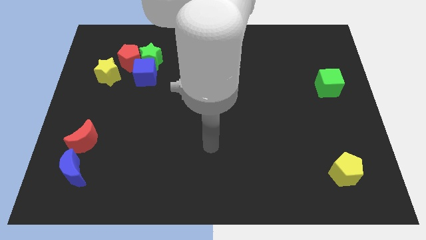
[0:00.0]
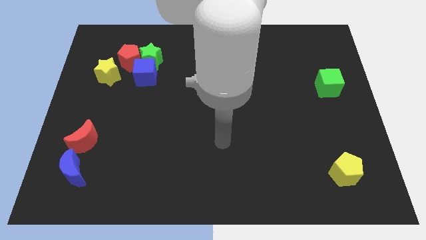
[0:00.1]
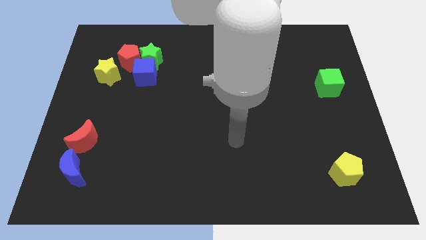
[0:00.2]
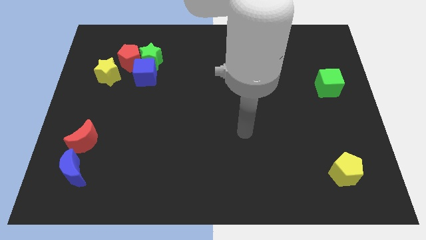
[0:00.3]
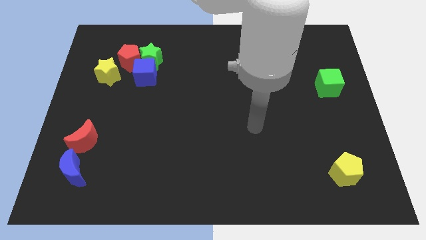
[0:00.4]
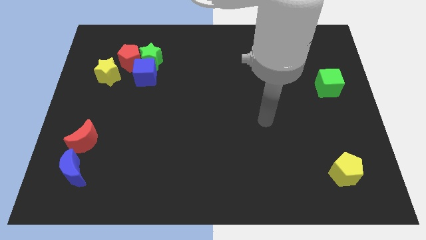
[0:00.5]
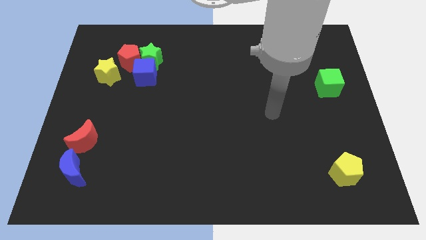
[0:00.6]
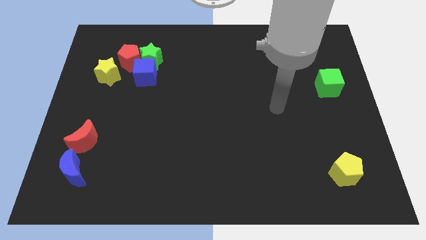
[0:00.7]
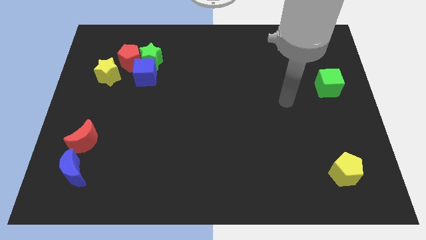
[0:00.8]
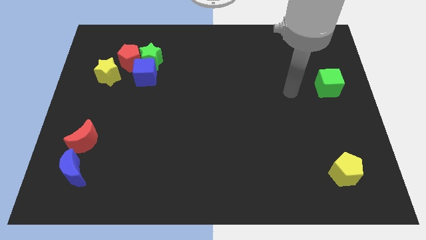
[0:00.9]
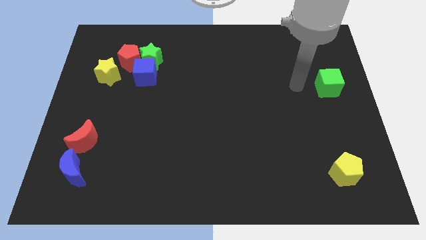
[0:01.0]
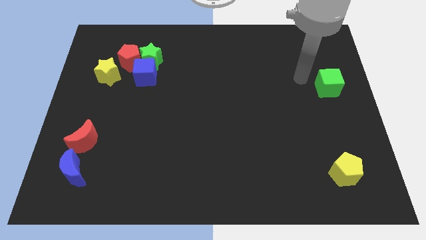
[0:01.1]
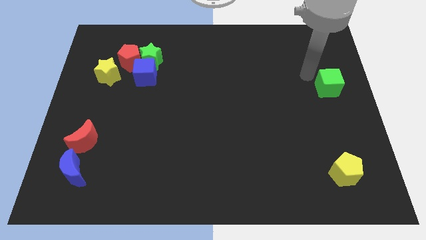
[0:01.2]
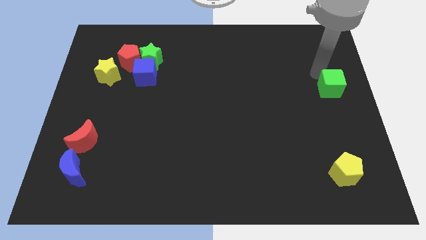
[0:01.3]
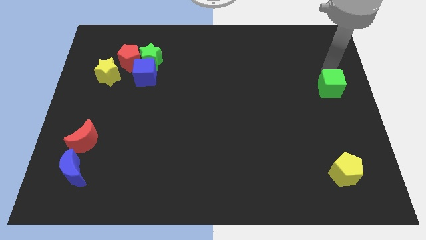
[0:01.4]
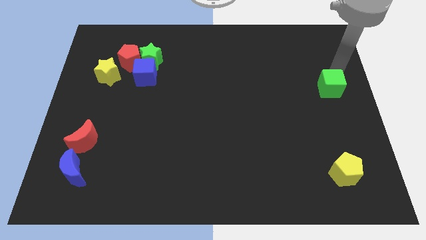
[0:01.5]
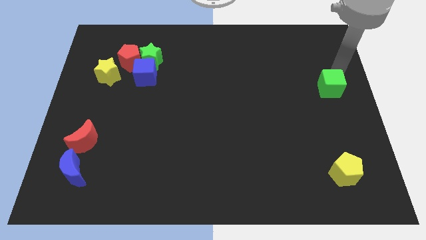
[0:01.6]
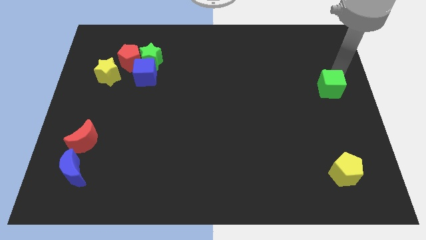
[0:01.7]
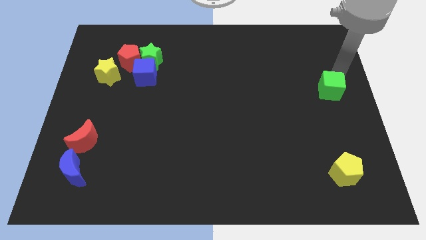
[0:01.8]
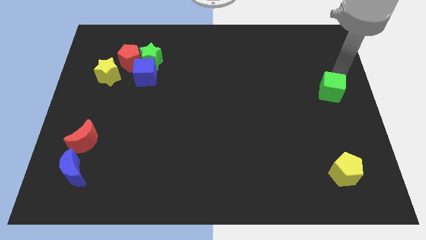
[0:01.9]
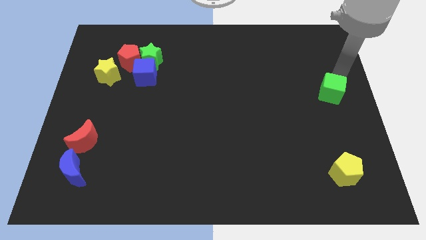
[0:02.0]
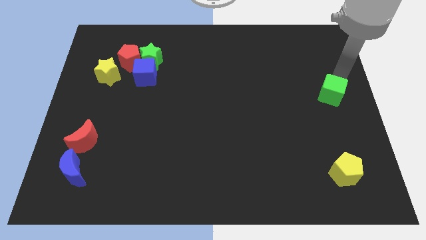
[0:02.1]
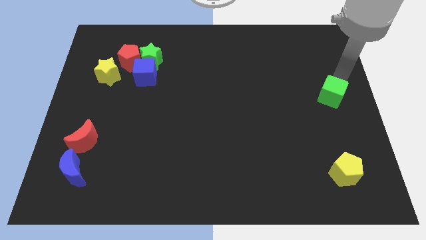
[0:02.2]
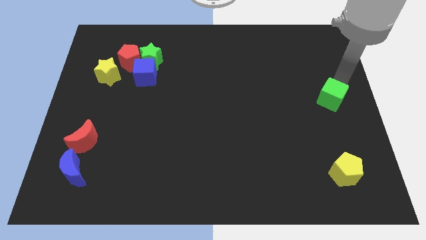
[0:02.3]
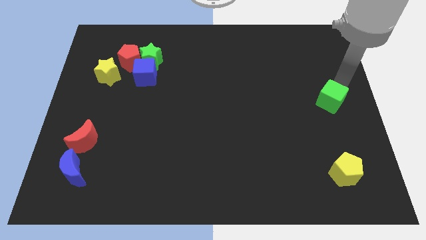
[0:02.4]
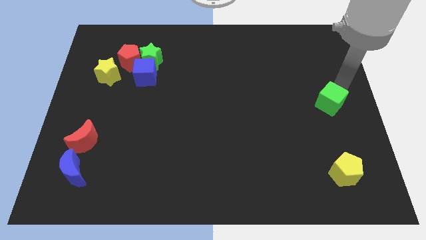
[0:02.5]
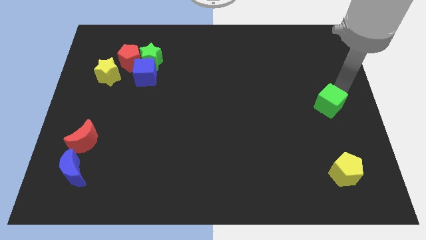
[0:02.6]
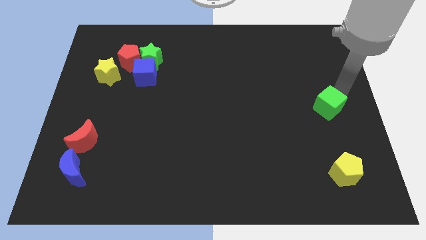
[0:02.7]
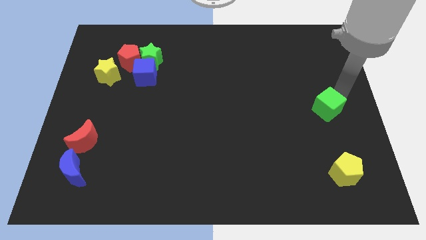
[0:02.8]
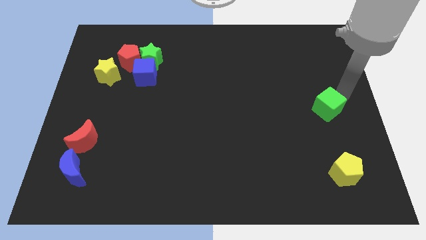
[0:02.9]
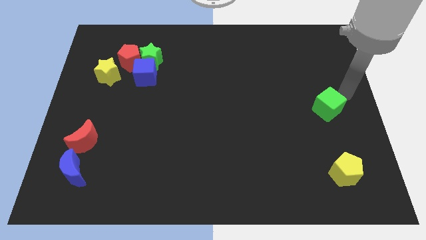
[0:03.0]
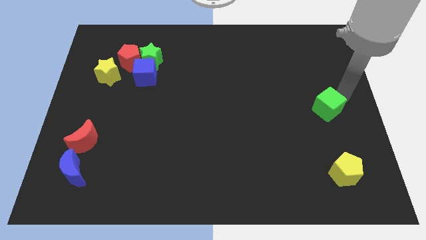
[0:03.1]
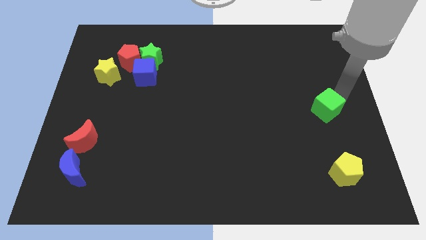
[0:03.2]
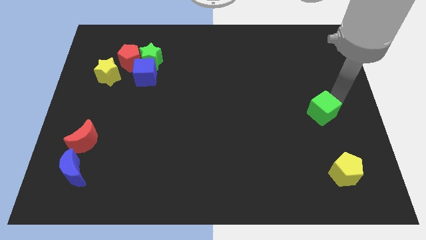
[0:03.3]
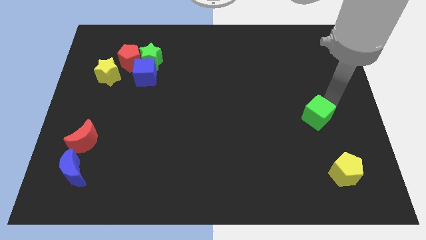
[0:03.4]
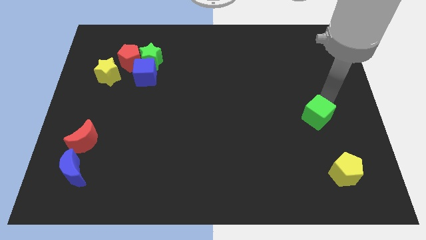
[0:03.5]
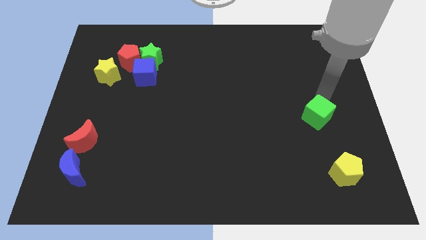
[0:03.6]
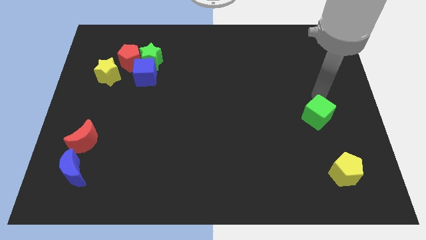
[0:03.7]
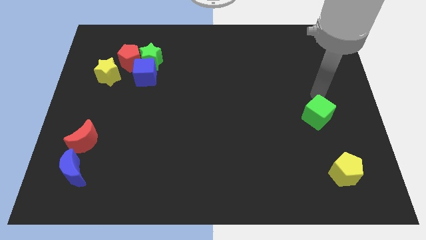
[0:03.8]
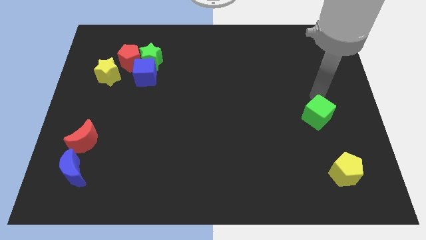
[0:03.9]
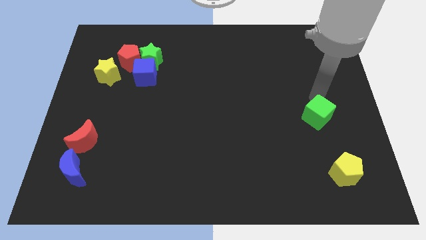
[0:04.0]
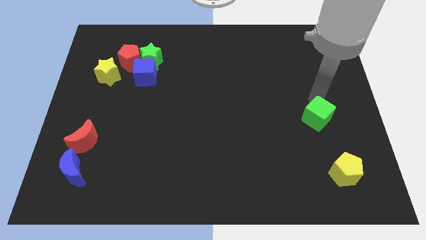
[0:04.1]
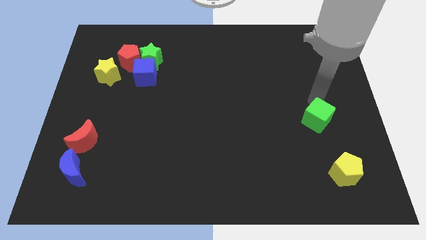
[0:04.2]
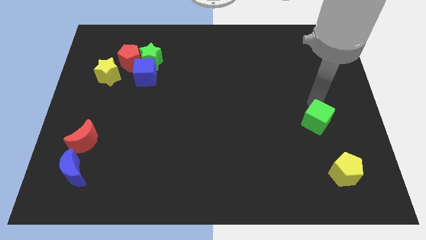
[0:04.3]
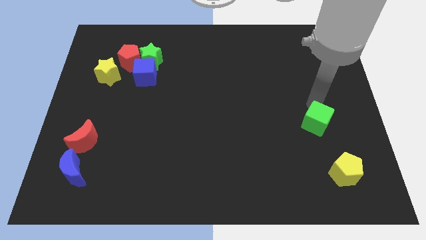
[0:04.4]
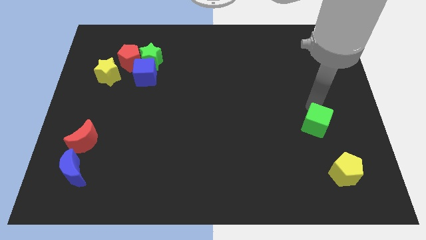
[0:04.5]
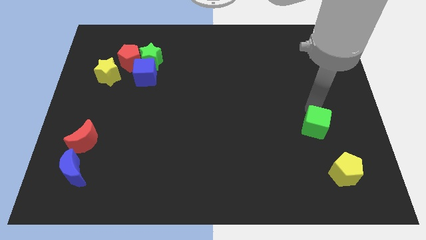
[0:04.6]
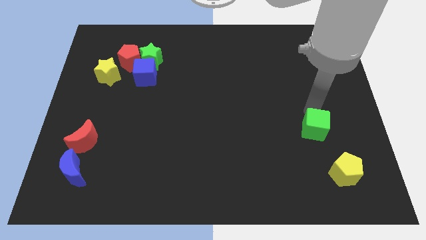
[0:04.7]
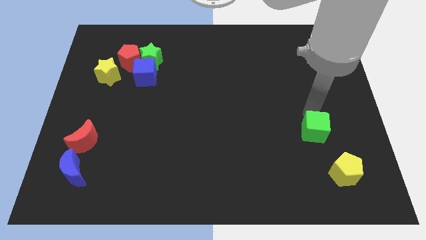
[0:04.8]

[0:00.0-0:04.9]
move the green cube to the top left of the yellow pentagon

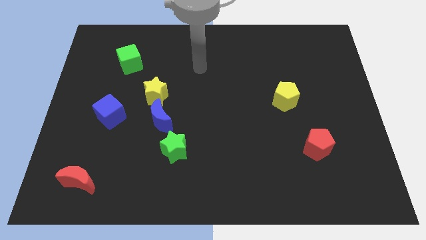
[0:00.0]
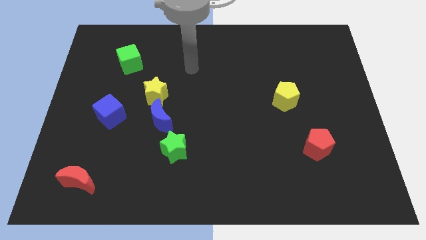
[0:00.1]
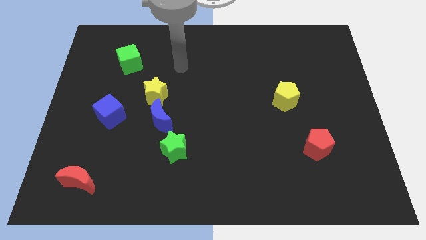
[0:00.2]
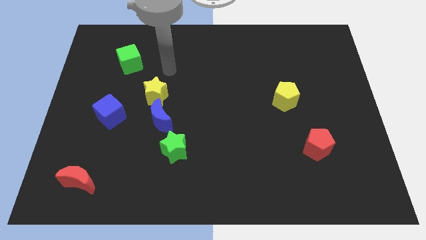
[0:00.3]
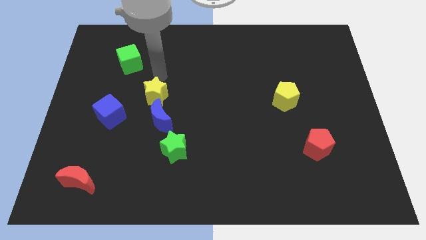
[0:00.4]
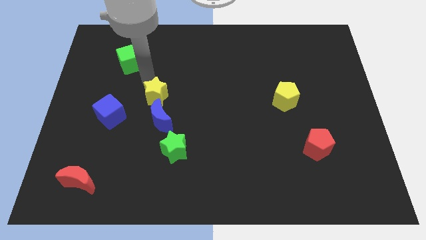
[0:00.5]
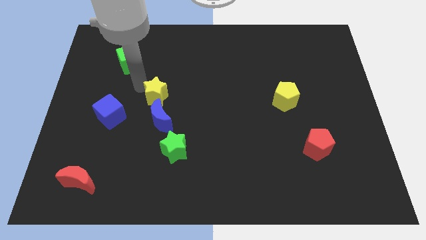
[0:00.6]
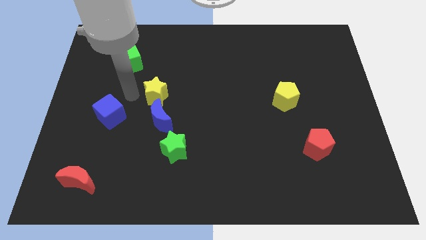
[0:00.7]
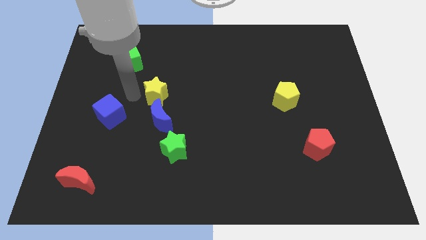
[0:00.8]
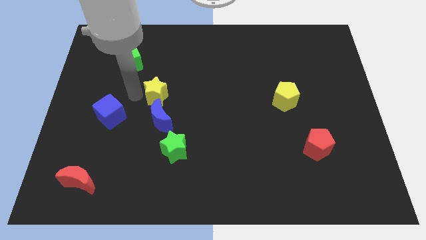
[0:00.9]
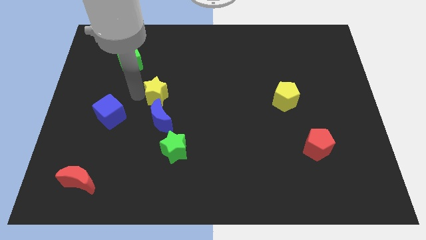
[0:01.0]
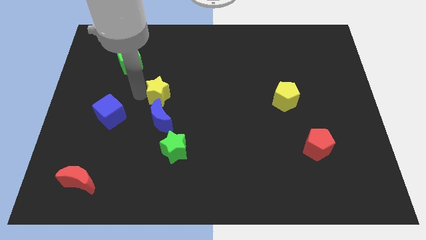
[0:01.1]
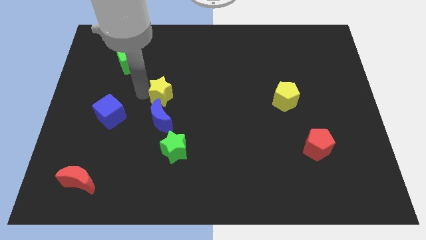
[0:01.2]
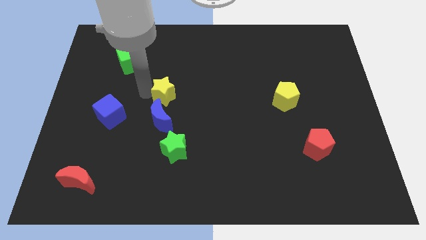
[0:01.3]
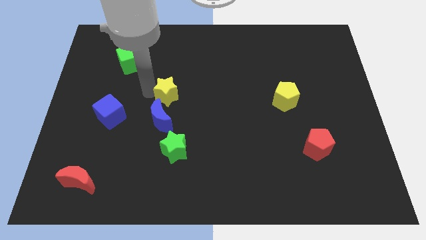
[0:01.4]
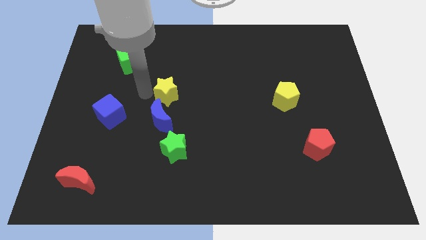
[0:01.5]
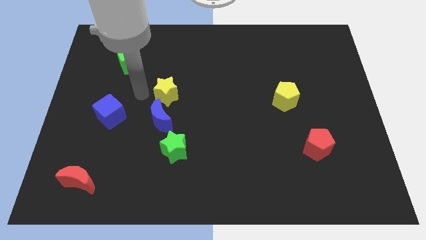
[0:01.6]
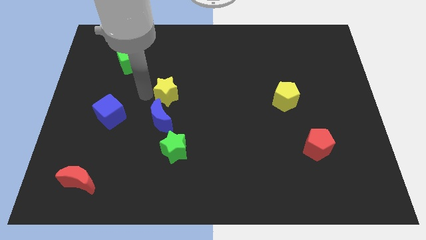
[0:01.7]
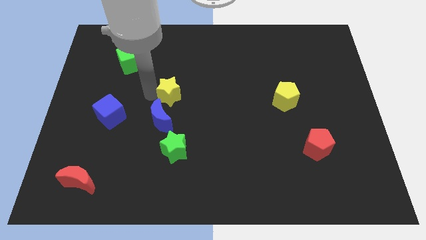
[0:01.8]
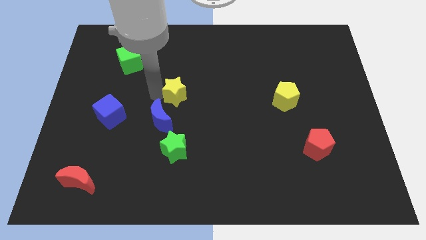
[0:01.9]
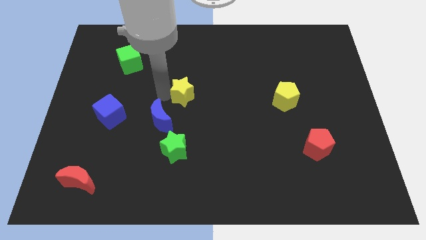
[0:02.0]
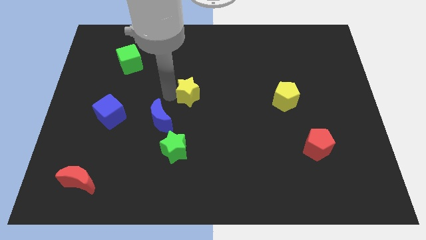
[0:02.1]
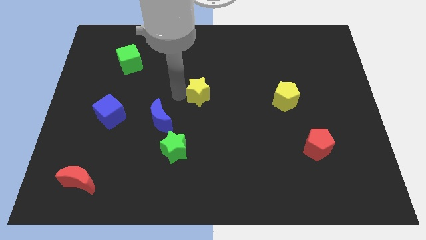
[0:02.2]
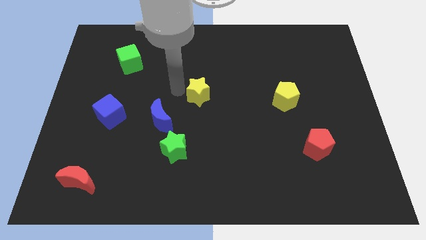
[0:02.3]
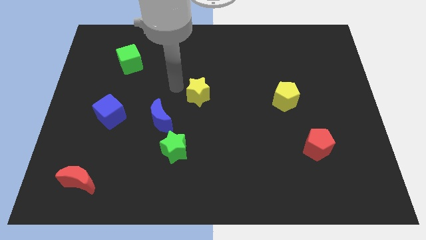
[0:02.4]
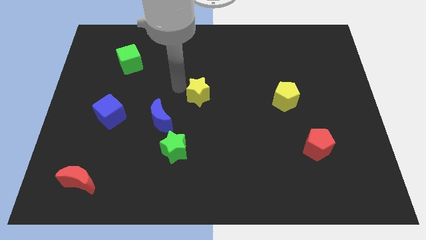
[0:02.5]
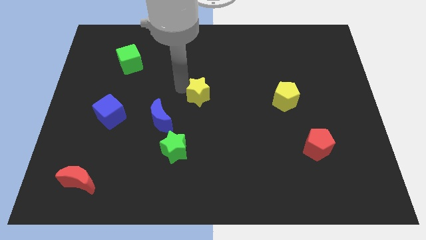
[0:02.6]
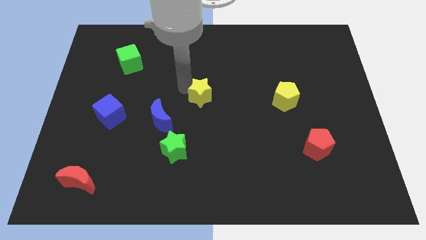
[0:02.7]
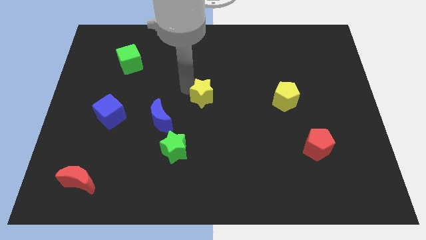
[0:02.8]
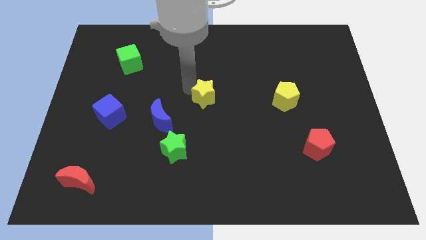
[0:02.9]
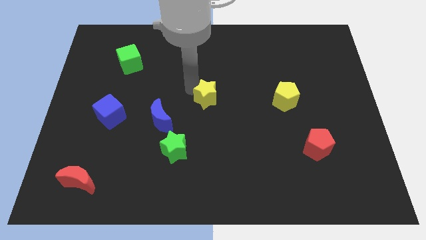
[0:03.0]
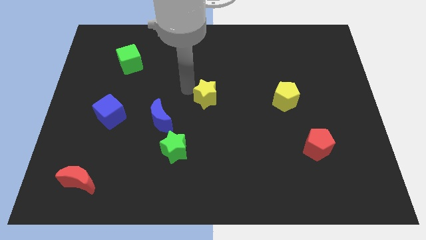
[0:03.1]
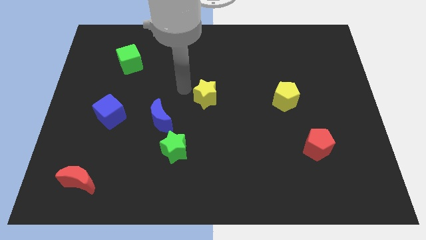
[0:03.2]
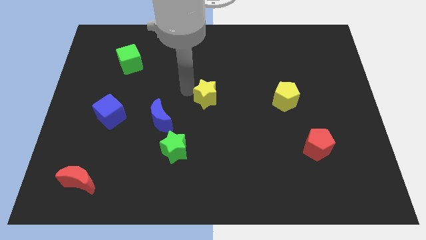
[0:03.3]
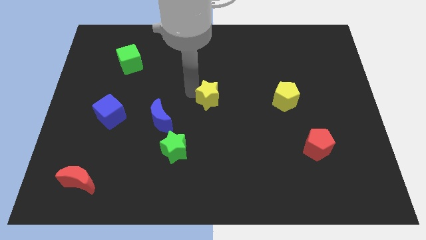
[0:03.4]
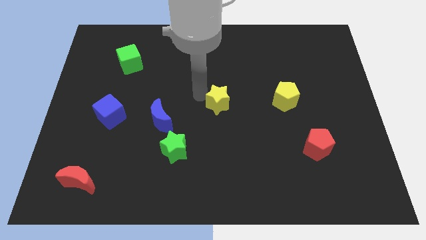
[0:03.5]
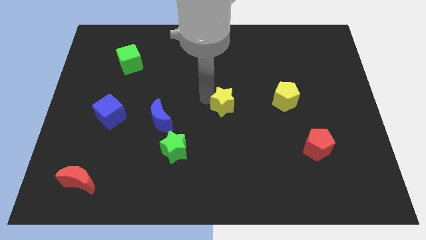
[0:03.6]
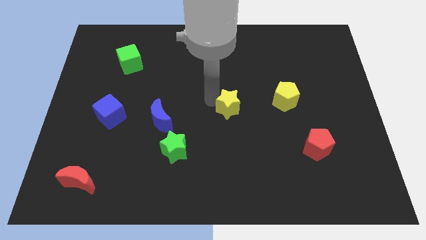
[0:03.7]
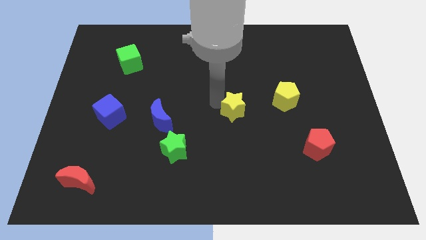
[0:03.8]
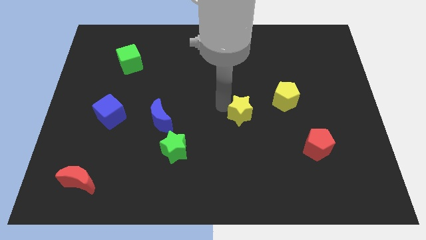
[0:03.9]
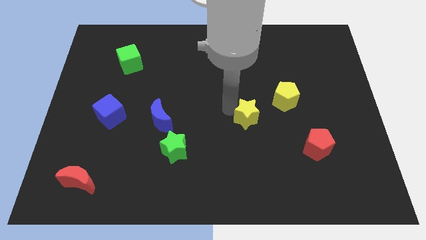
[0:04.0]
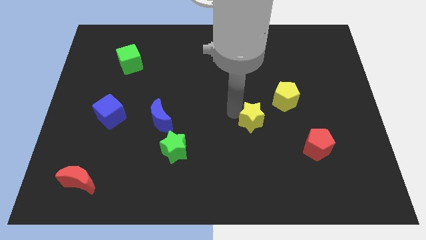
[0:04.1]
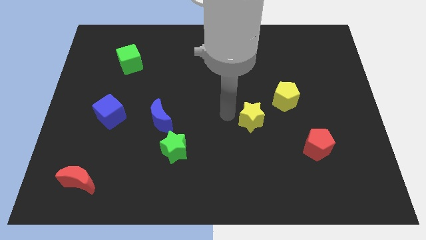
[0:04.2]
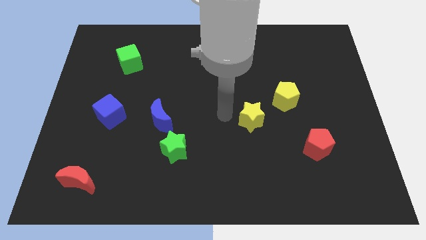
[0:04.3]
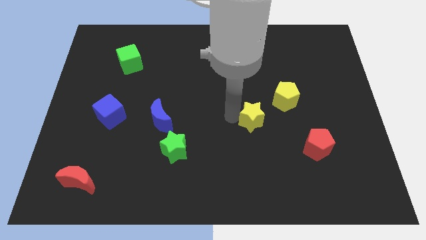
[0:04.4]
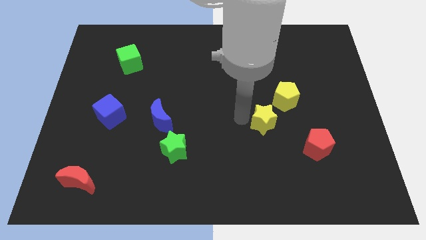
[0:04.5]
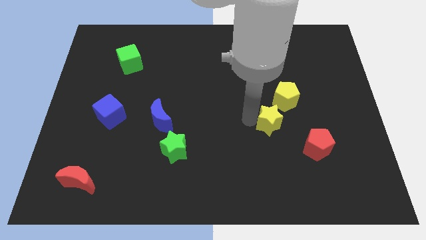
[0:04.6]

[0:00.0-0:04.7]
slide the yellow star to the top left of the red pentagon
